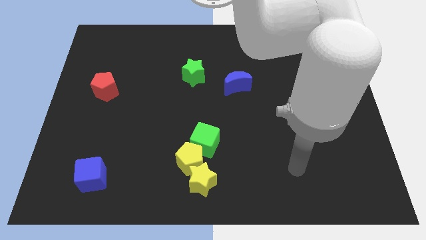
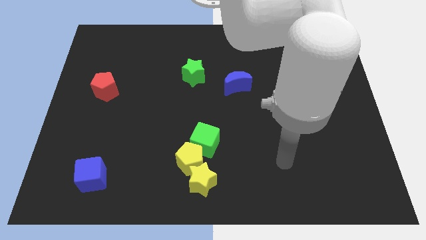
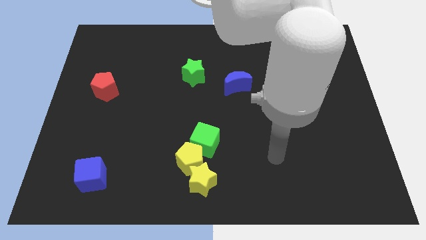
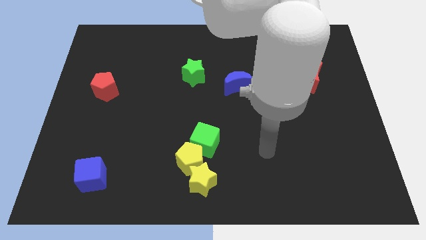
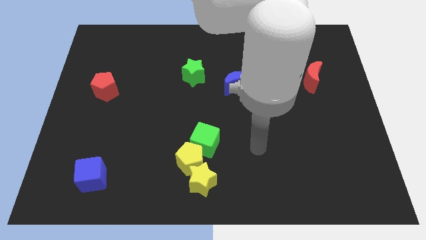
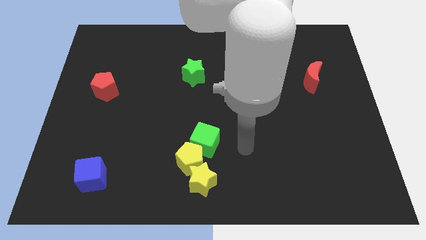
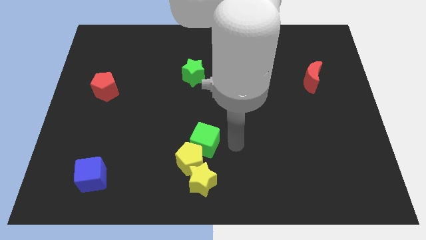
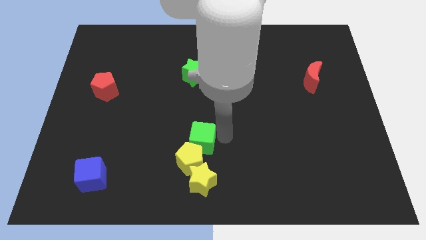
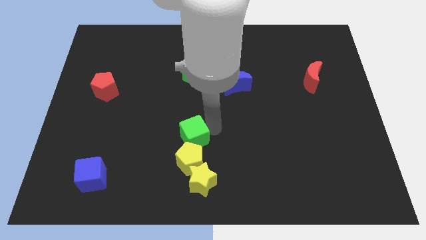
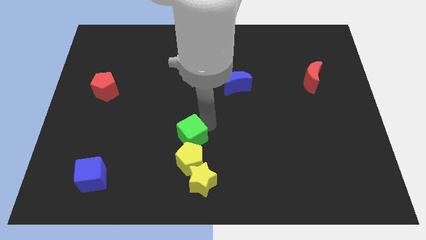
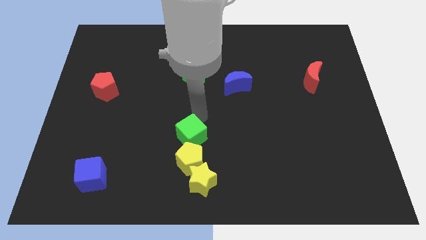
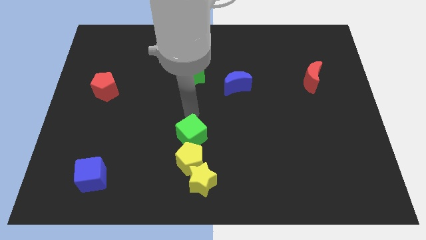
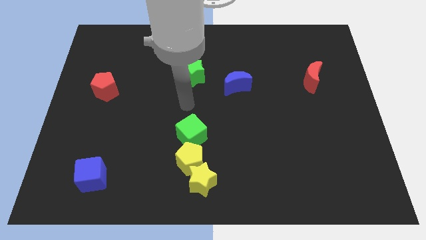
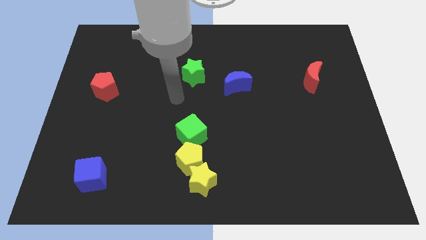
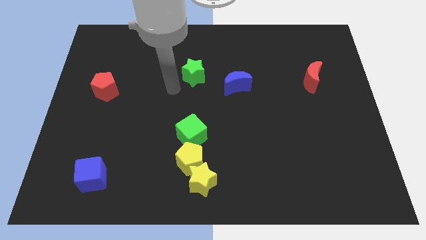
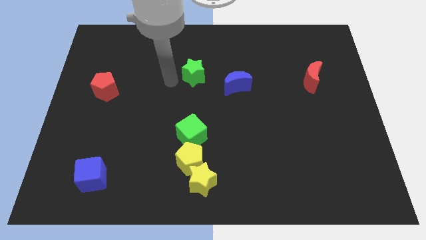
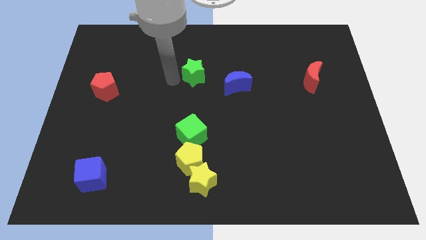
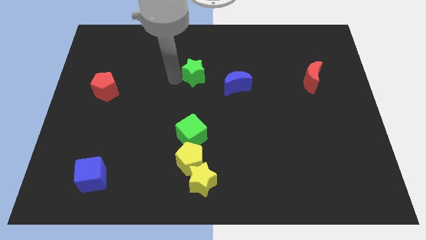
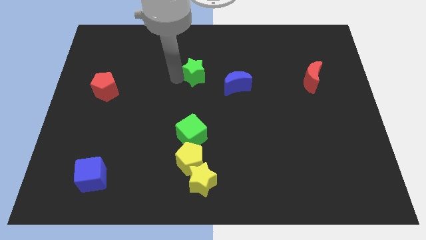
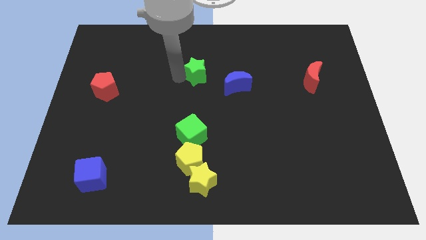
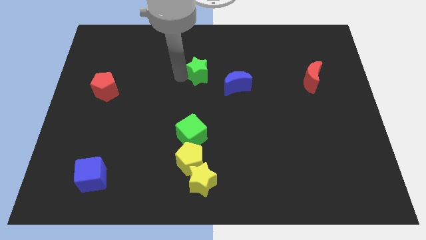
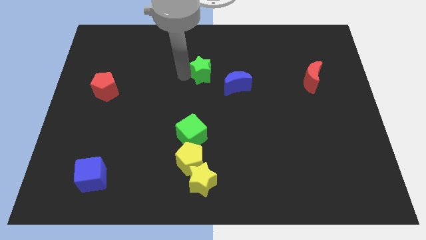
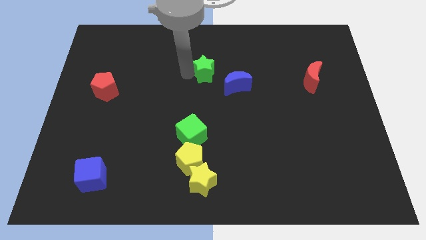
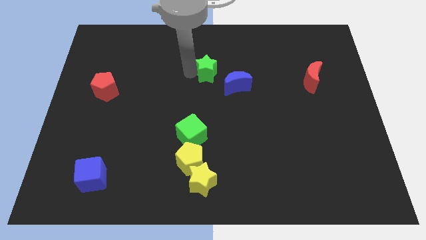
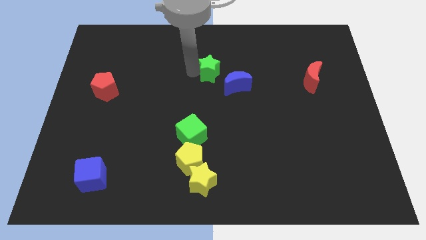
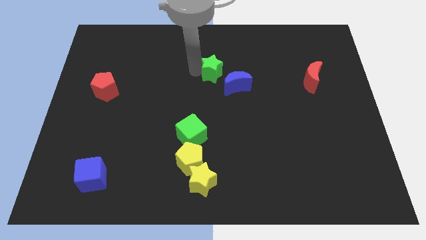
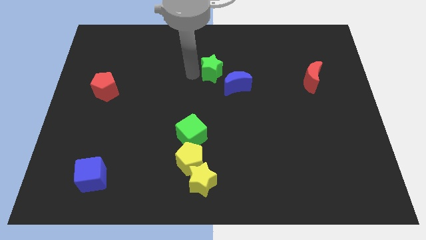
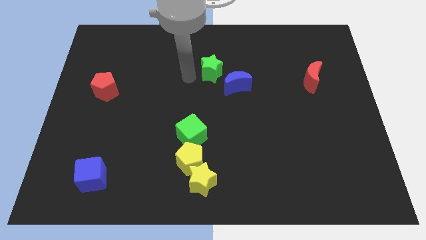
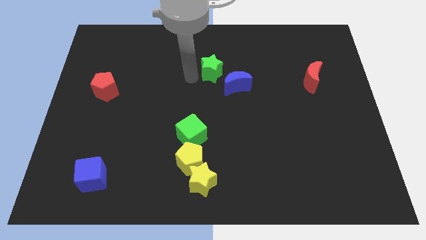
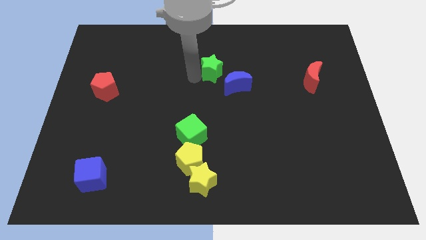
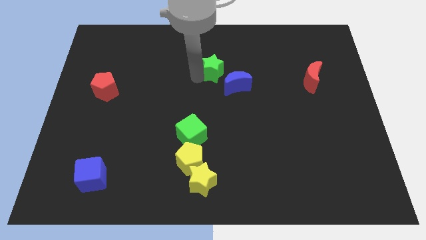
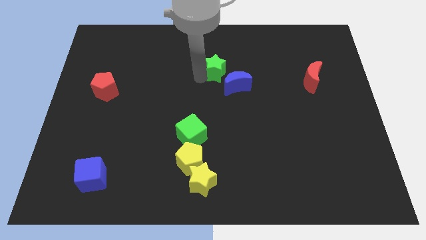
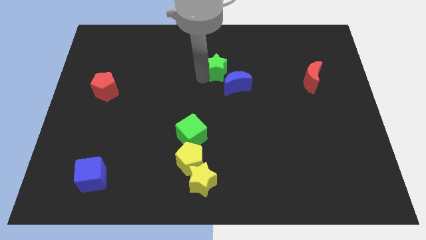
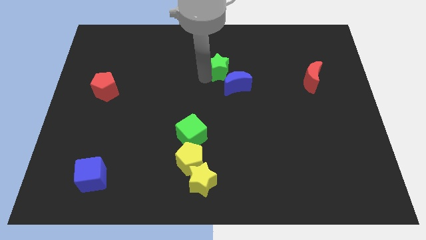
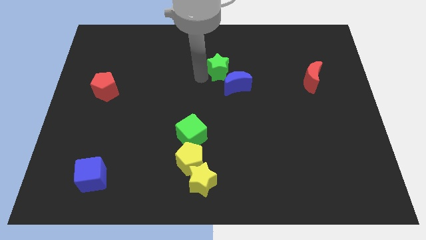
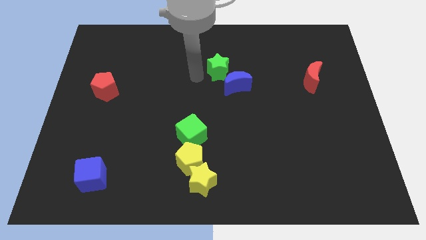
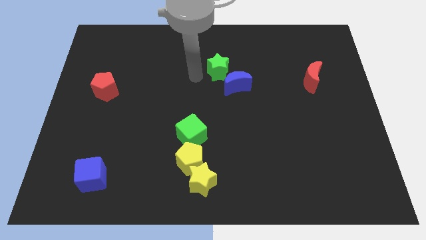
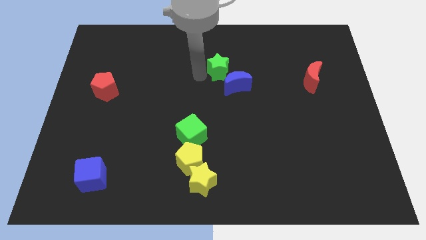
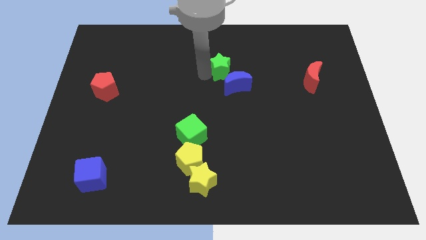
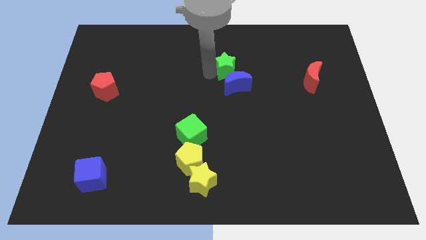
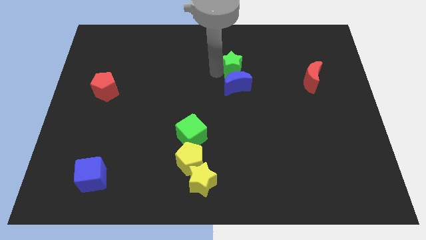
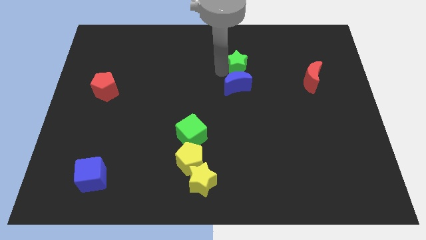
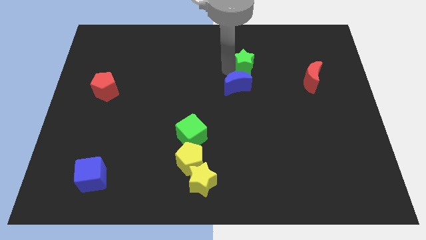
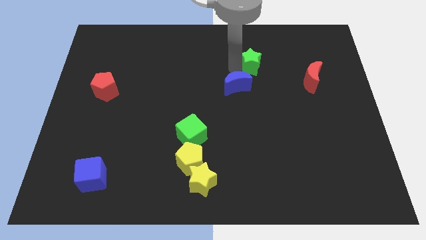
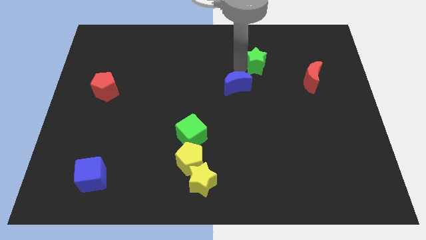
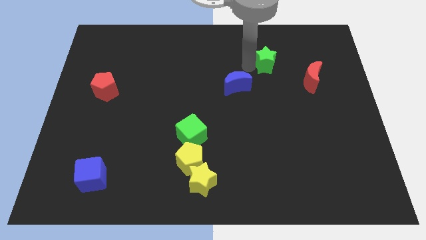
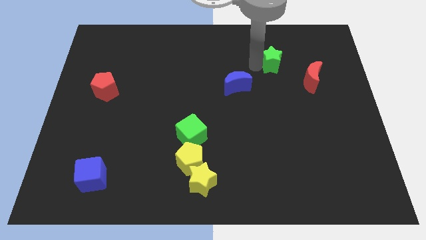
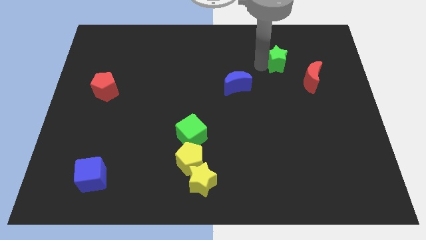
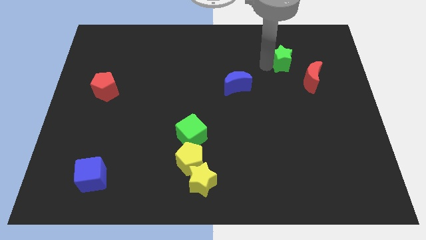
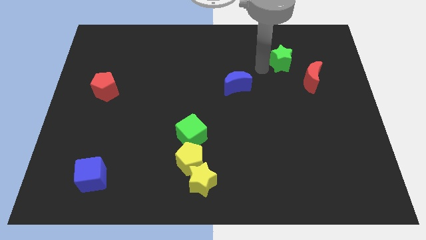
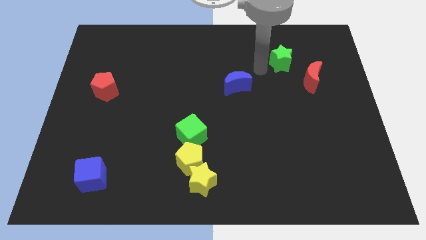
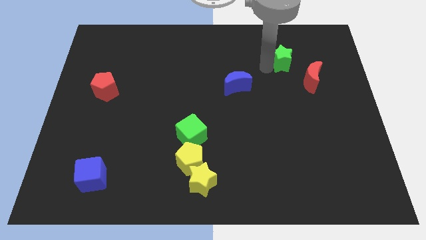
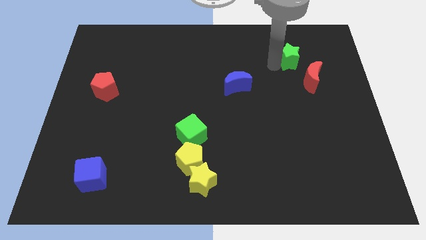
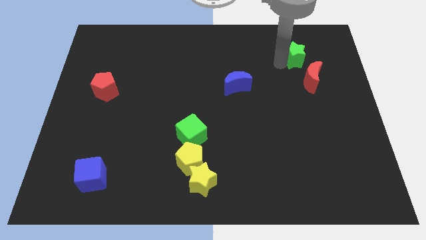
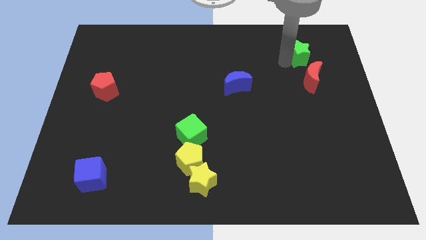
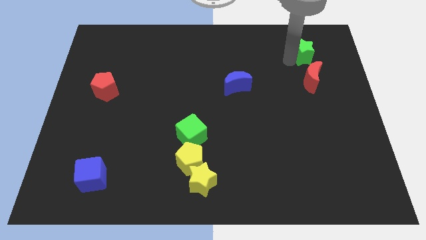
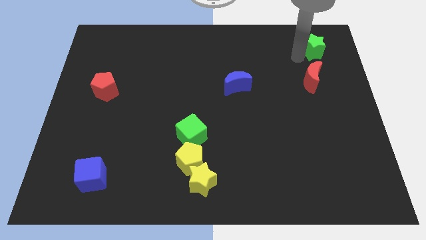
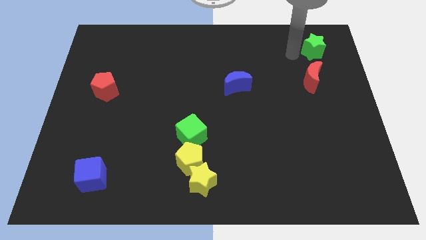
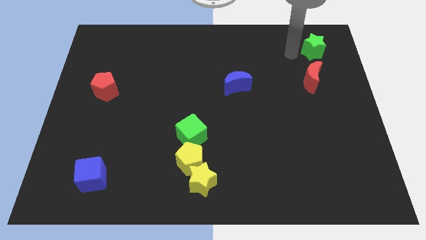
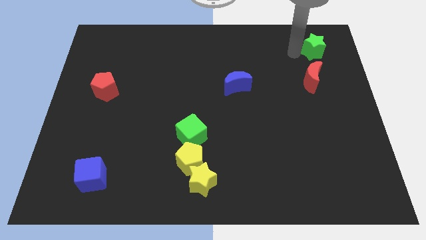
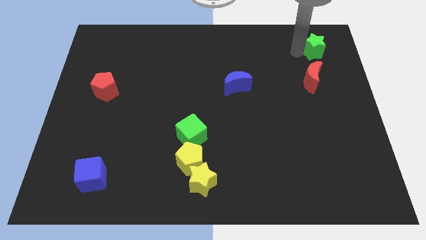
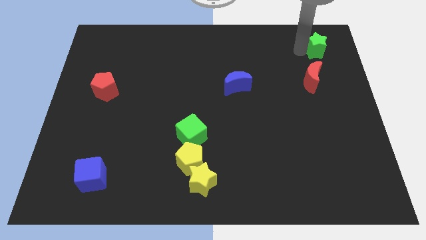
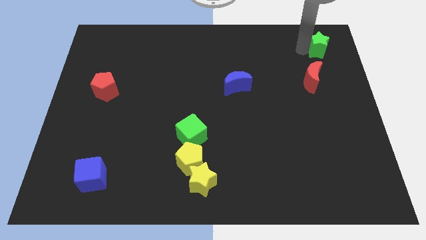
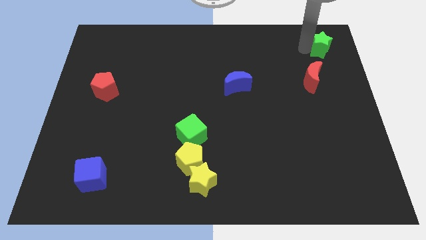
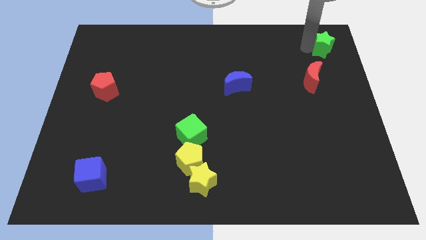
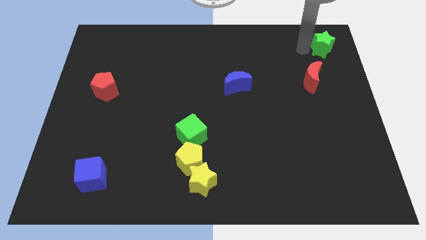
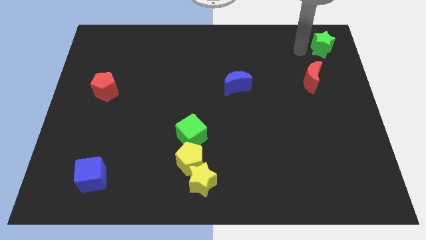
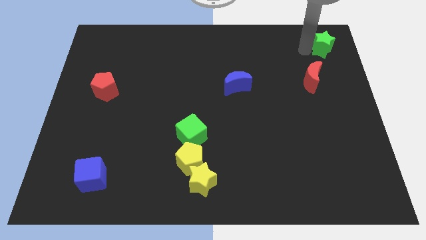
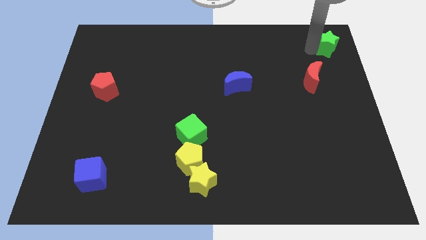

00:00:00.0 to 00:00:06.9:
slide the green star to the top right of the board
